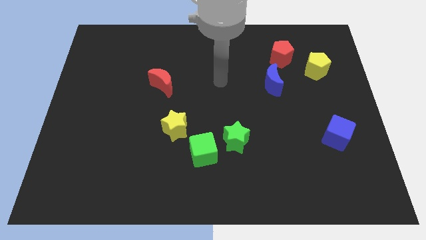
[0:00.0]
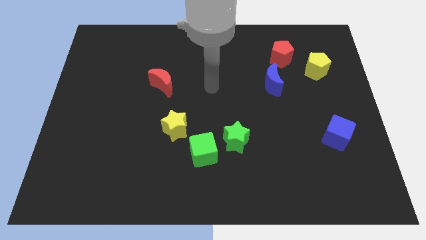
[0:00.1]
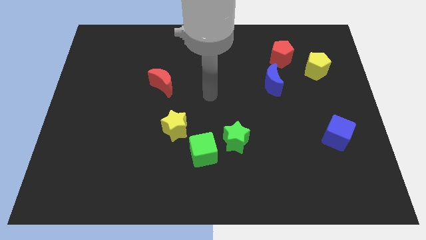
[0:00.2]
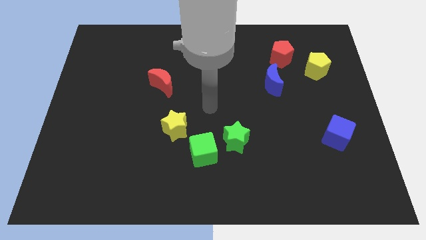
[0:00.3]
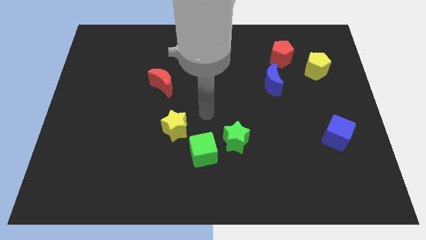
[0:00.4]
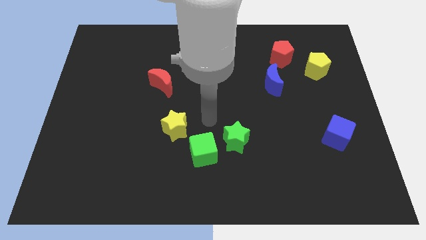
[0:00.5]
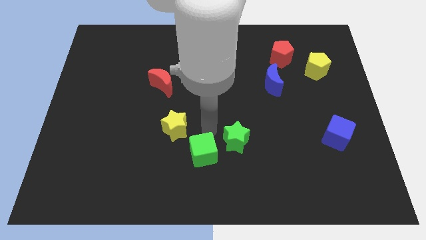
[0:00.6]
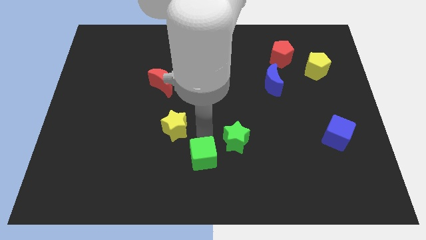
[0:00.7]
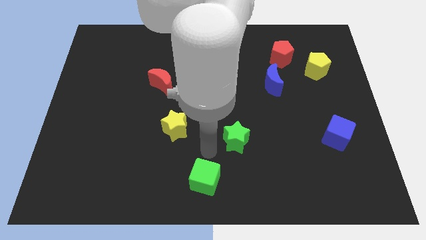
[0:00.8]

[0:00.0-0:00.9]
separate the green star from the green cube

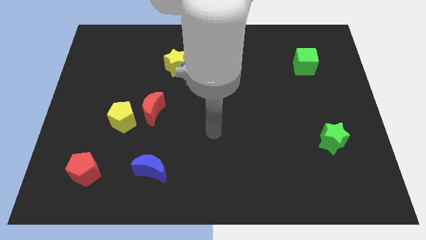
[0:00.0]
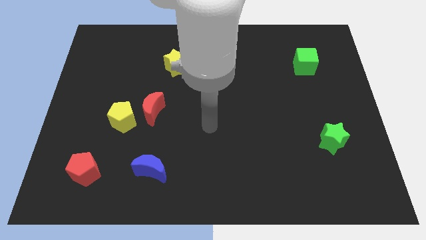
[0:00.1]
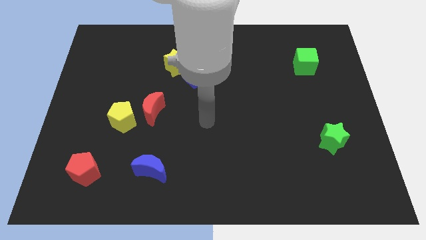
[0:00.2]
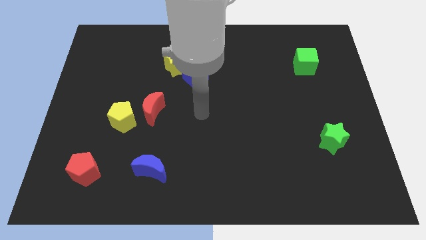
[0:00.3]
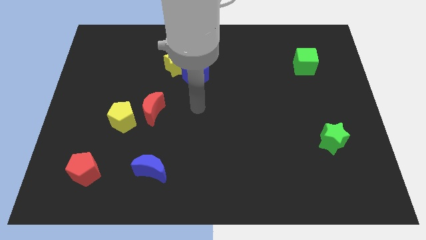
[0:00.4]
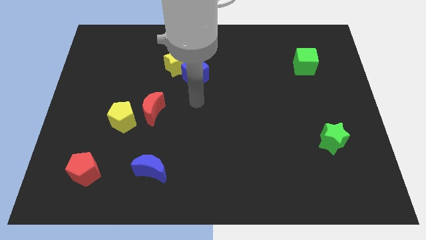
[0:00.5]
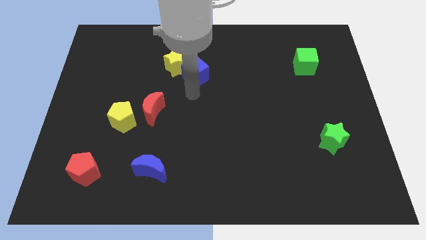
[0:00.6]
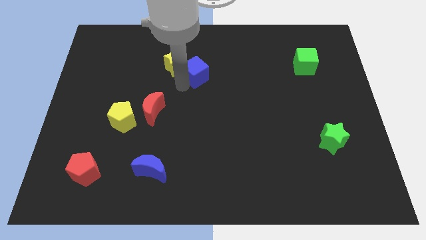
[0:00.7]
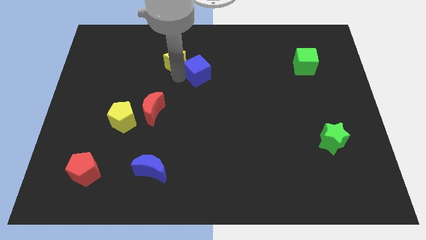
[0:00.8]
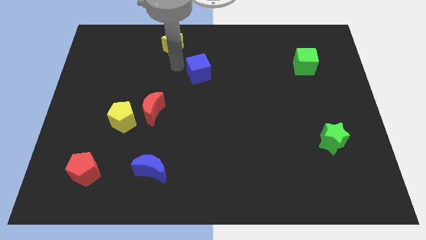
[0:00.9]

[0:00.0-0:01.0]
move the blue cube away from the yellow star

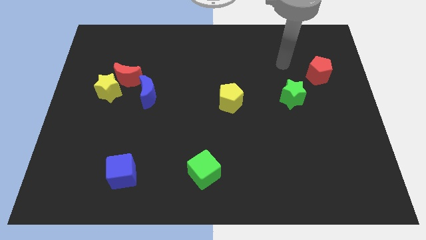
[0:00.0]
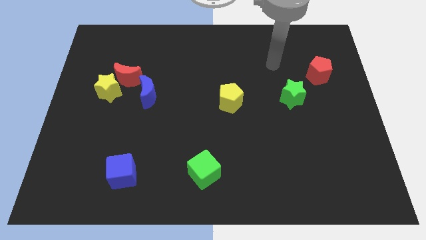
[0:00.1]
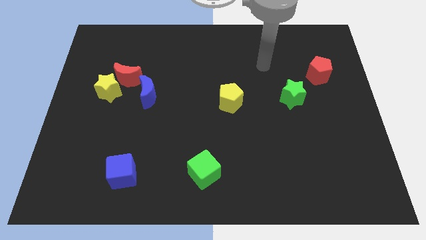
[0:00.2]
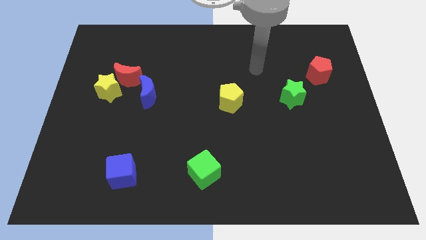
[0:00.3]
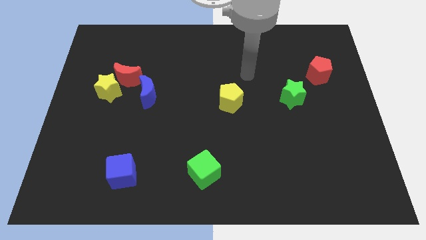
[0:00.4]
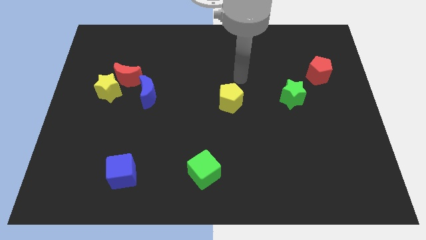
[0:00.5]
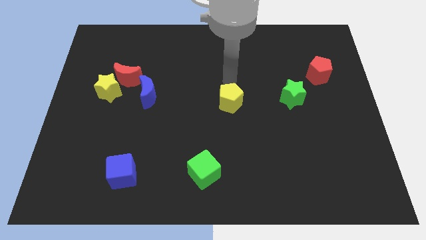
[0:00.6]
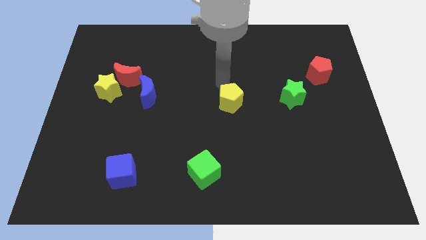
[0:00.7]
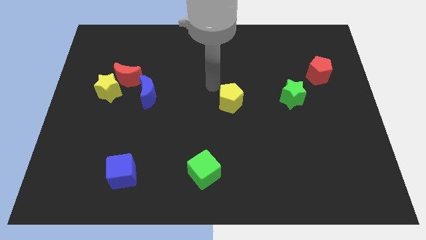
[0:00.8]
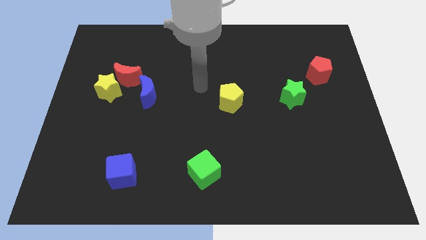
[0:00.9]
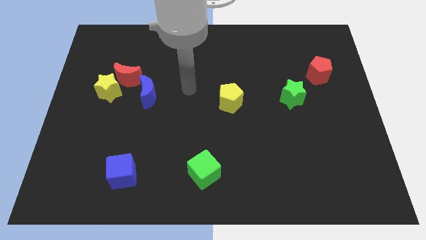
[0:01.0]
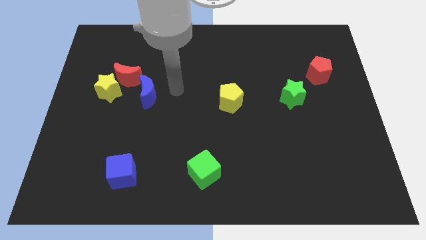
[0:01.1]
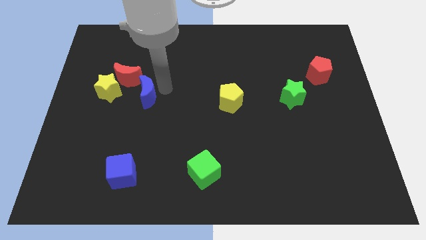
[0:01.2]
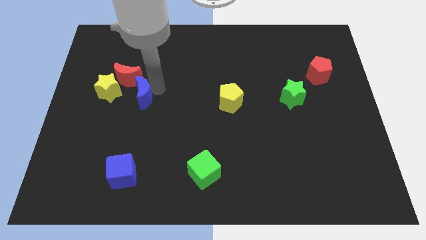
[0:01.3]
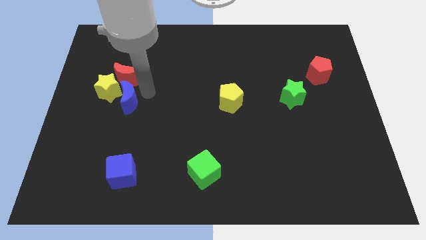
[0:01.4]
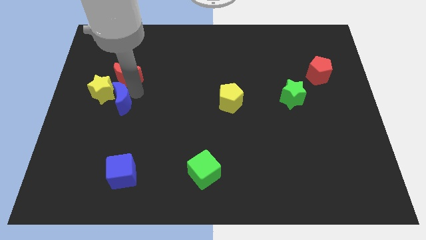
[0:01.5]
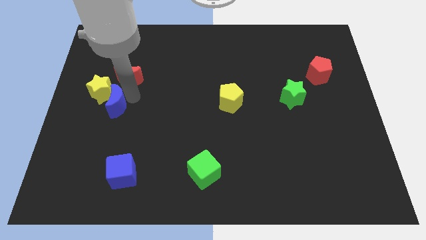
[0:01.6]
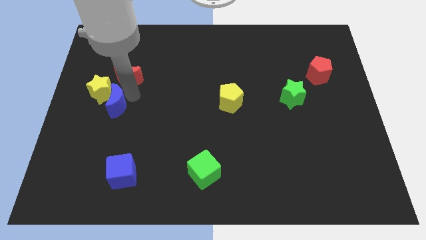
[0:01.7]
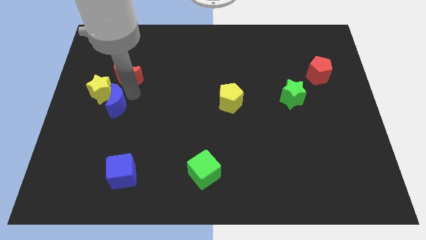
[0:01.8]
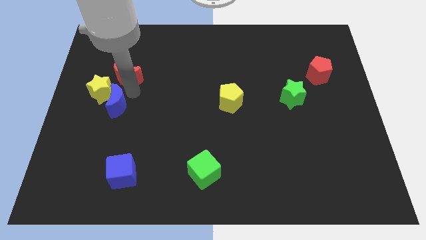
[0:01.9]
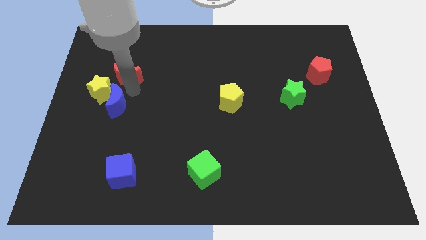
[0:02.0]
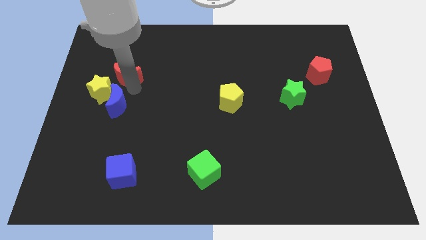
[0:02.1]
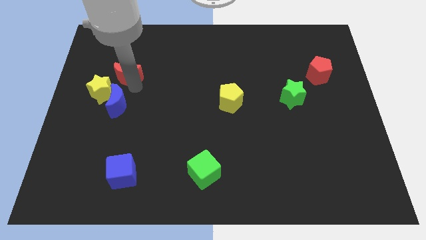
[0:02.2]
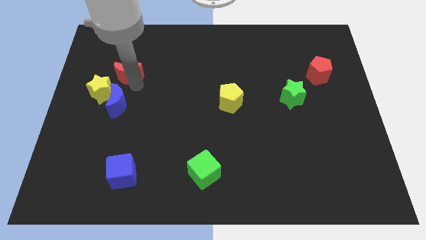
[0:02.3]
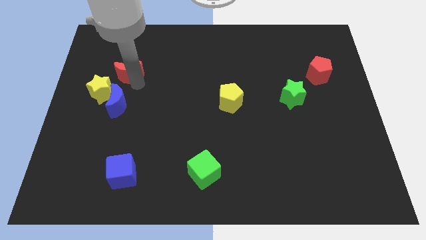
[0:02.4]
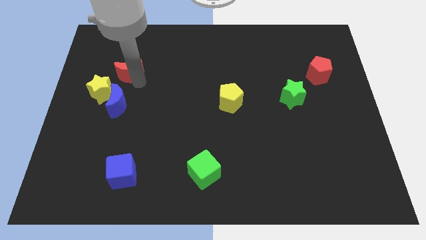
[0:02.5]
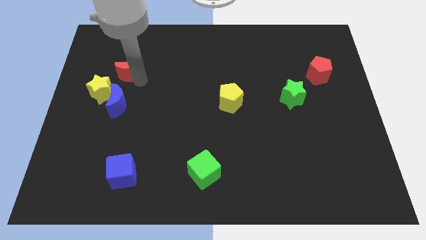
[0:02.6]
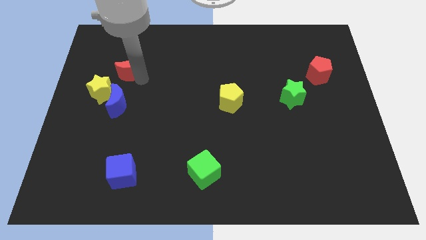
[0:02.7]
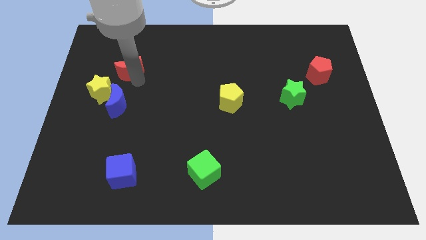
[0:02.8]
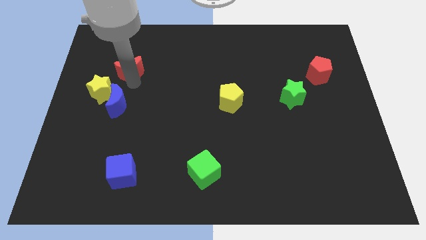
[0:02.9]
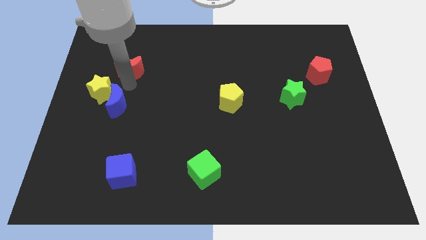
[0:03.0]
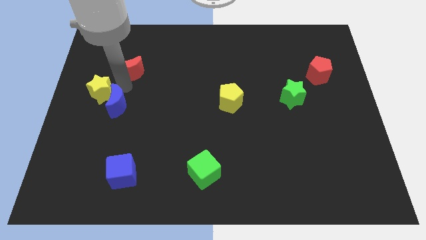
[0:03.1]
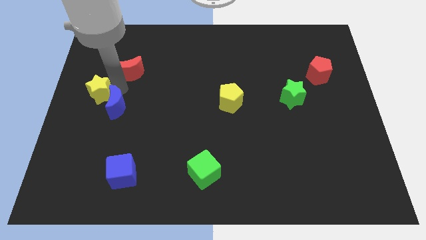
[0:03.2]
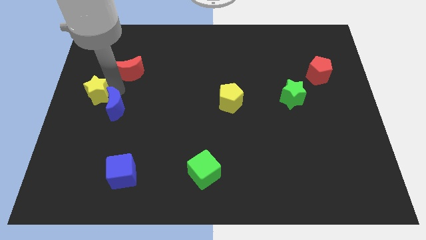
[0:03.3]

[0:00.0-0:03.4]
move the red moon away from the yellow star and blue moon

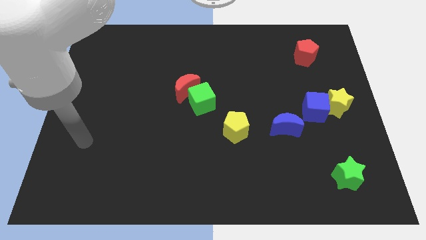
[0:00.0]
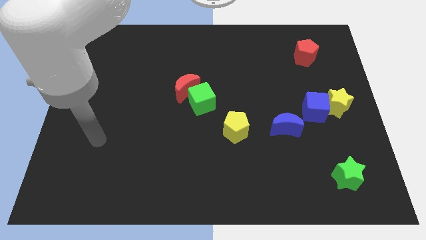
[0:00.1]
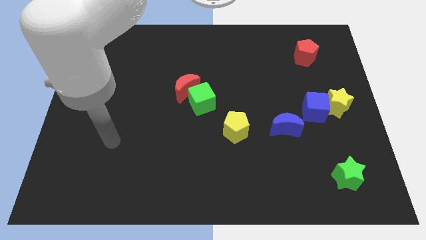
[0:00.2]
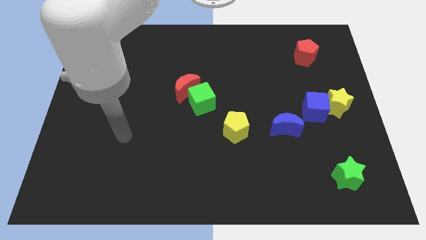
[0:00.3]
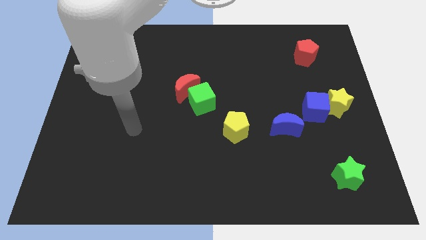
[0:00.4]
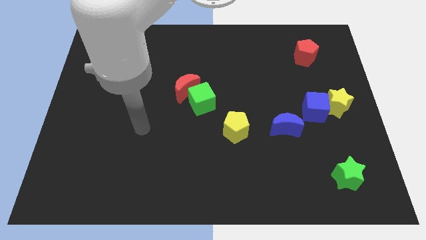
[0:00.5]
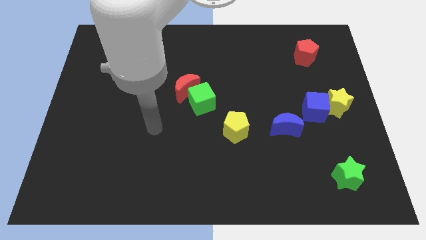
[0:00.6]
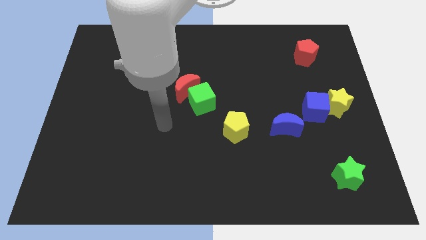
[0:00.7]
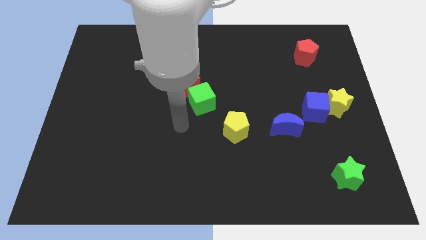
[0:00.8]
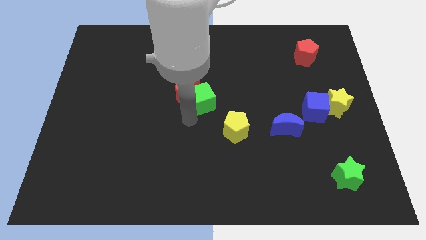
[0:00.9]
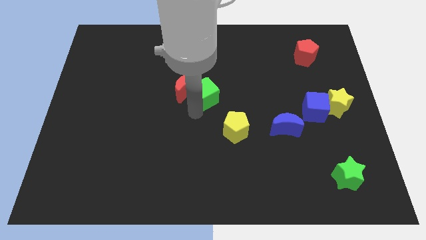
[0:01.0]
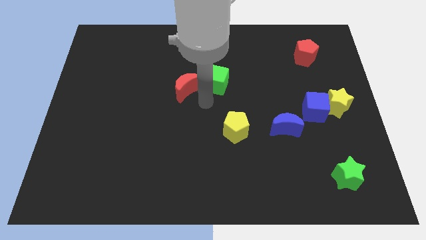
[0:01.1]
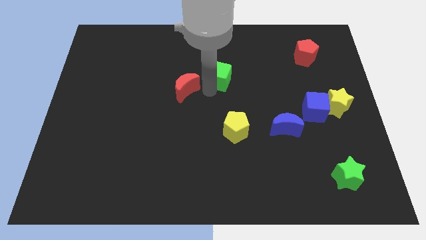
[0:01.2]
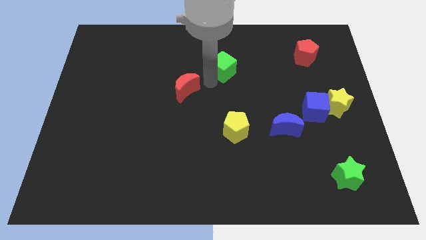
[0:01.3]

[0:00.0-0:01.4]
separate the red moon from the green cube

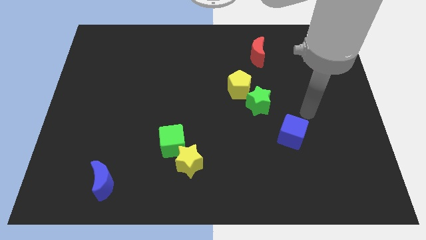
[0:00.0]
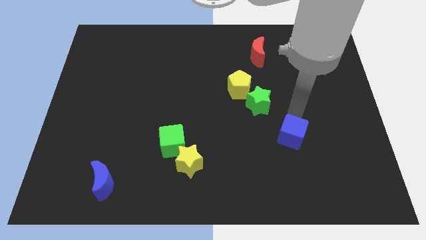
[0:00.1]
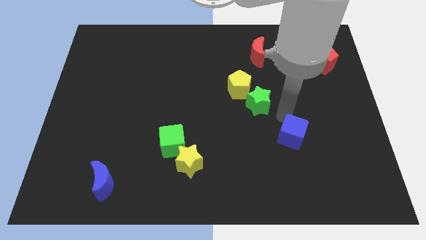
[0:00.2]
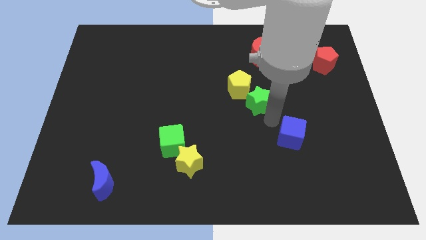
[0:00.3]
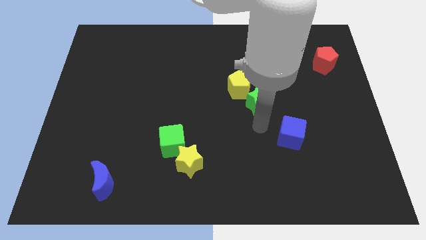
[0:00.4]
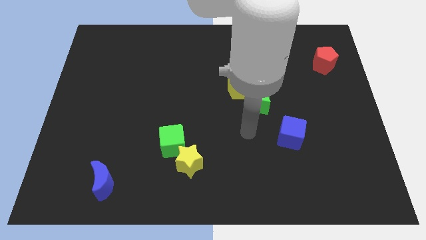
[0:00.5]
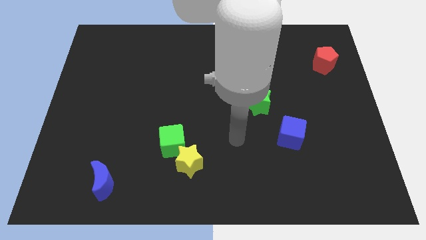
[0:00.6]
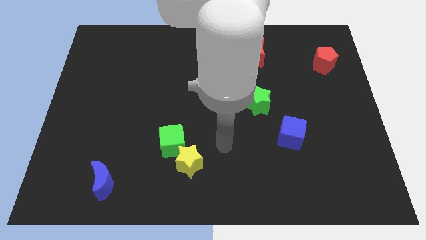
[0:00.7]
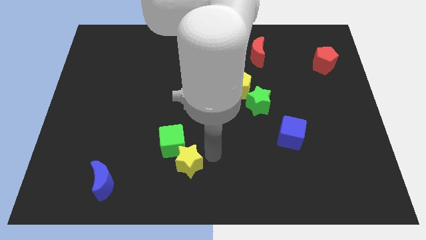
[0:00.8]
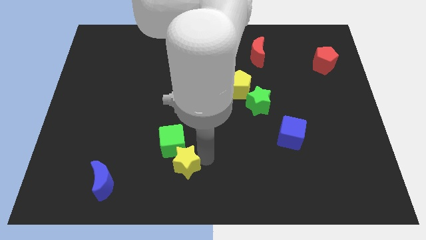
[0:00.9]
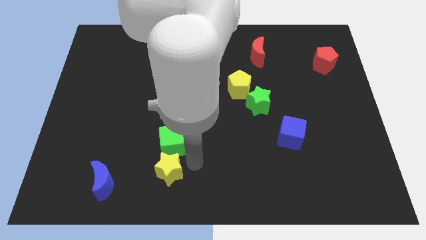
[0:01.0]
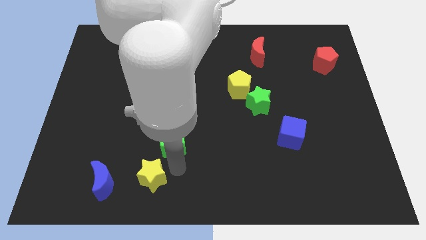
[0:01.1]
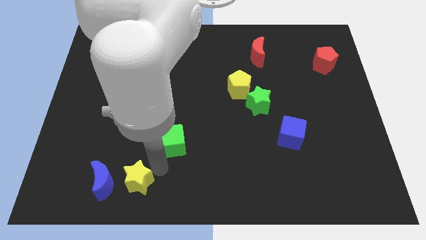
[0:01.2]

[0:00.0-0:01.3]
pull the green cube apart from the yellow star

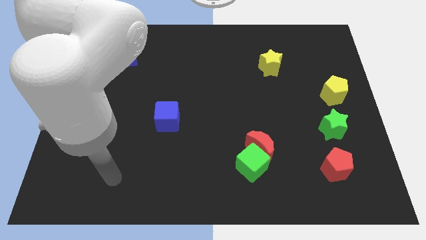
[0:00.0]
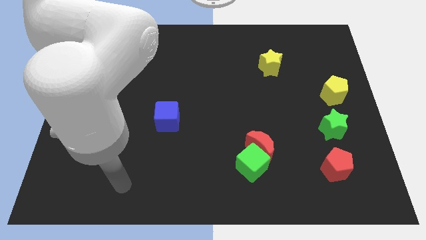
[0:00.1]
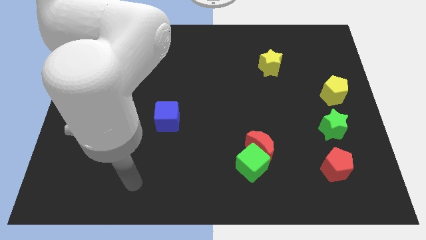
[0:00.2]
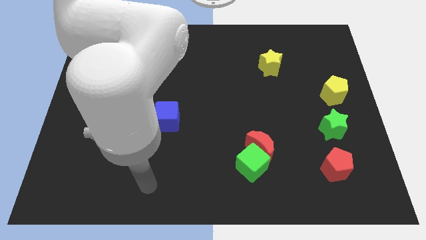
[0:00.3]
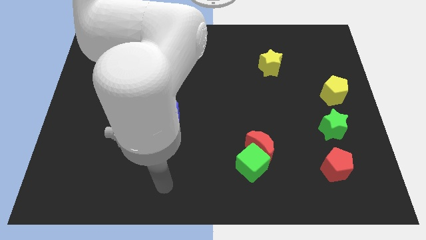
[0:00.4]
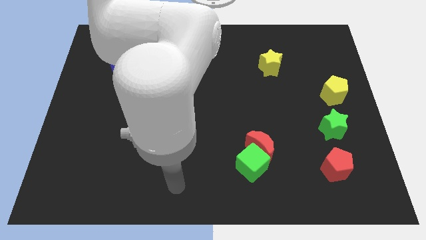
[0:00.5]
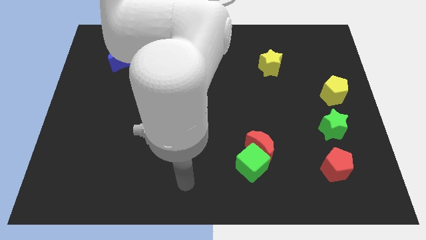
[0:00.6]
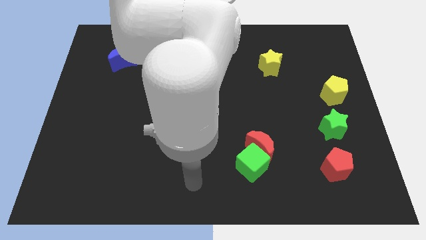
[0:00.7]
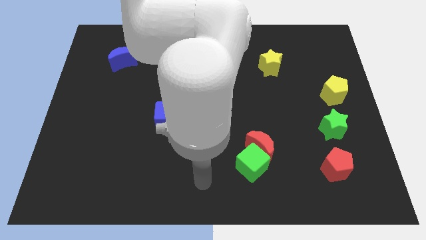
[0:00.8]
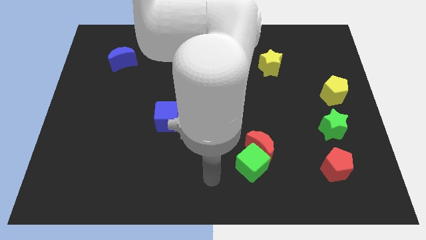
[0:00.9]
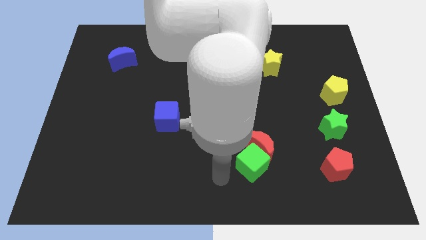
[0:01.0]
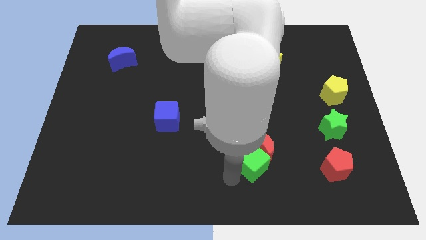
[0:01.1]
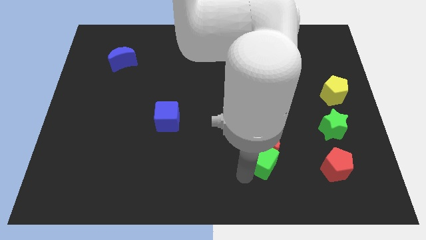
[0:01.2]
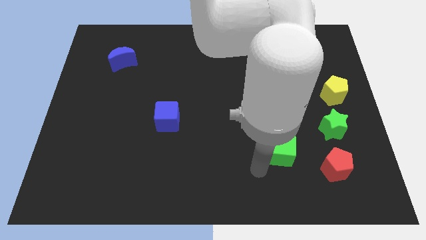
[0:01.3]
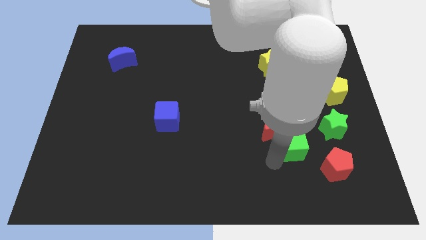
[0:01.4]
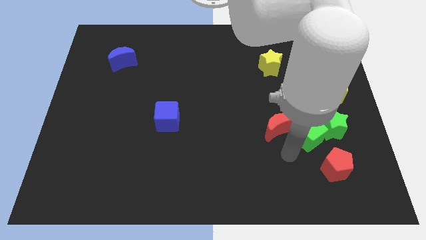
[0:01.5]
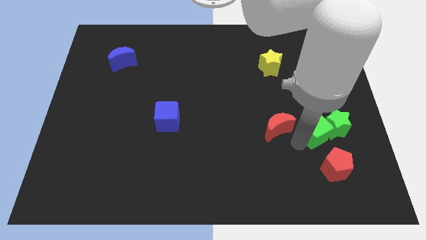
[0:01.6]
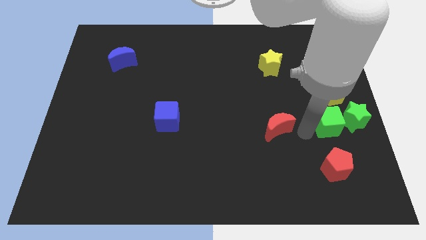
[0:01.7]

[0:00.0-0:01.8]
pull the red moon apart from the green cube
